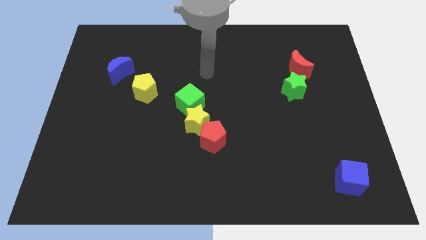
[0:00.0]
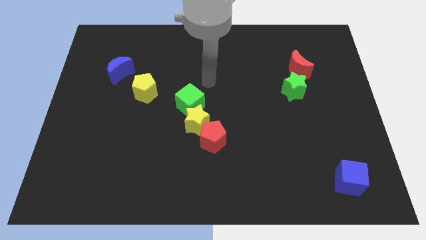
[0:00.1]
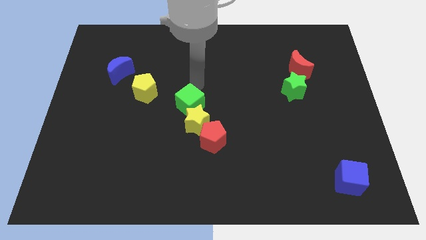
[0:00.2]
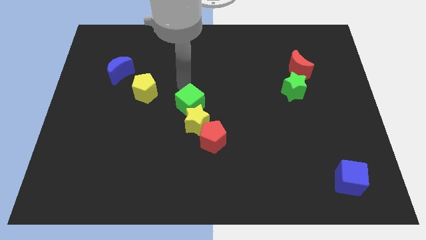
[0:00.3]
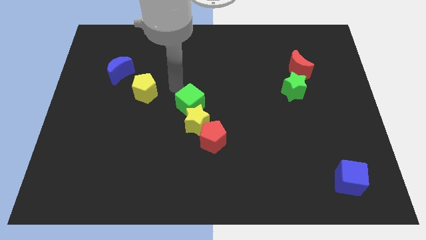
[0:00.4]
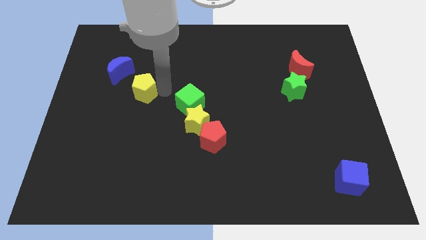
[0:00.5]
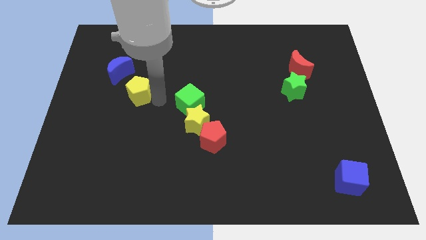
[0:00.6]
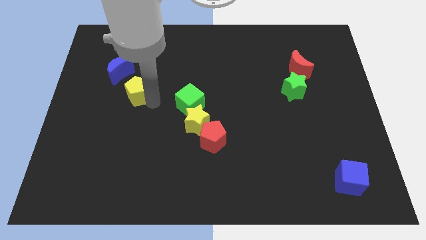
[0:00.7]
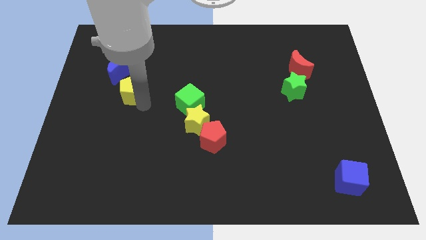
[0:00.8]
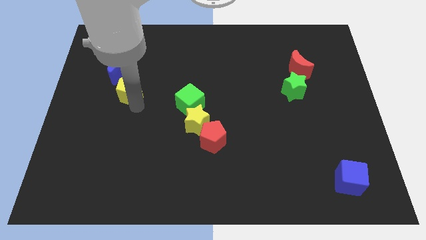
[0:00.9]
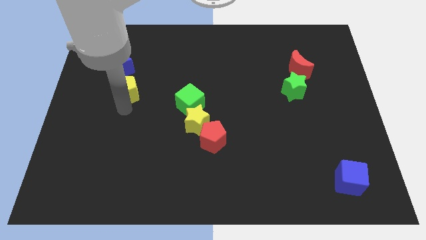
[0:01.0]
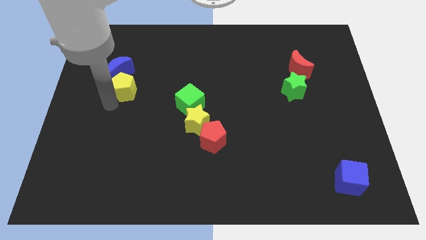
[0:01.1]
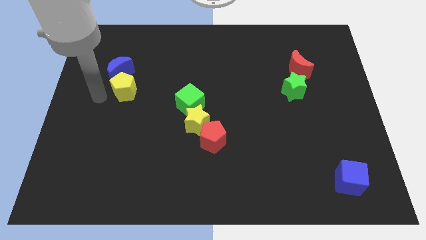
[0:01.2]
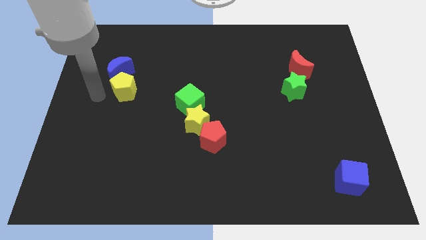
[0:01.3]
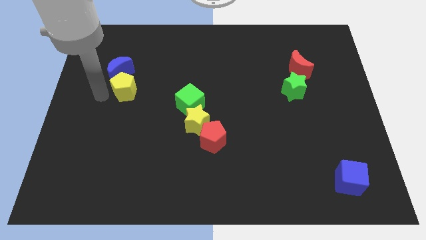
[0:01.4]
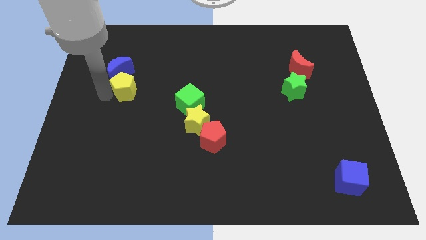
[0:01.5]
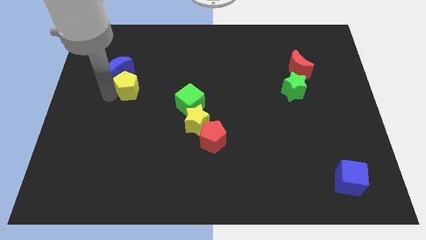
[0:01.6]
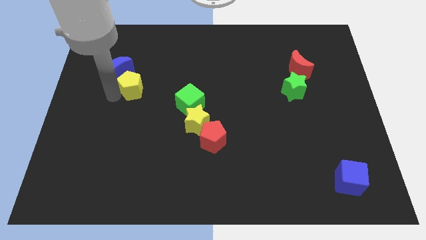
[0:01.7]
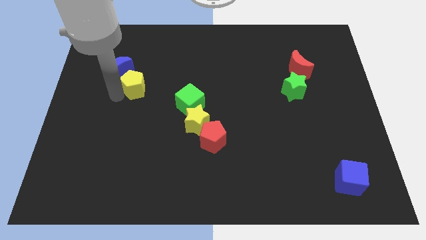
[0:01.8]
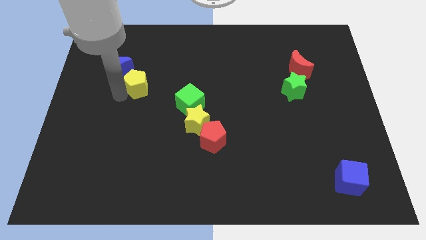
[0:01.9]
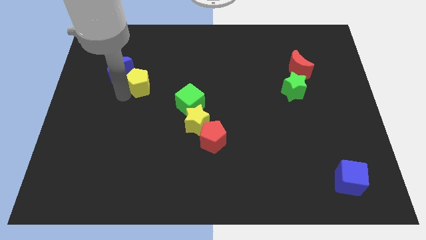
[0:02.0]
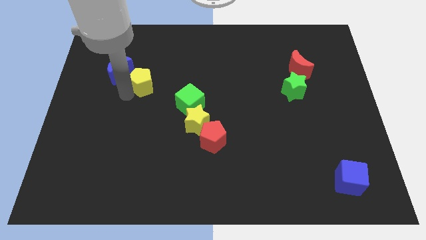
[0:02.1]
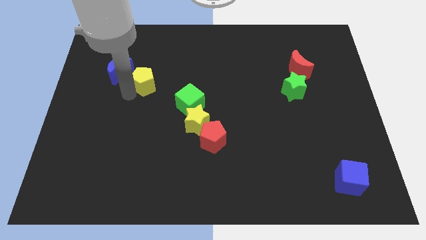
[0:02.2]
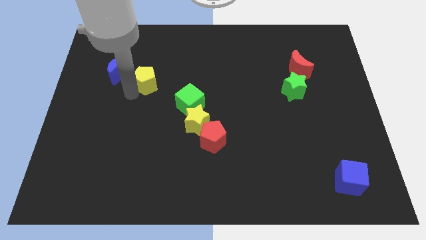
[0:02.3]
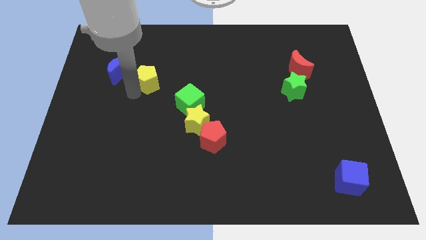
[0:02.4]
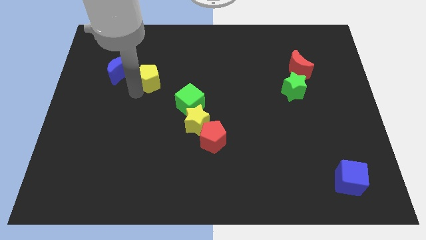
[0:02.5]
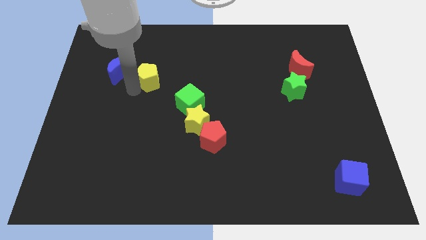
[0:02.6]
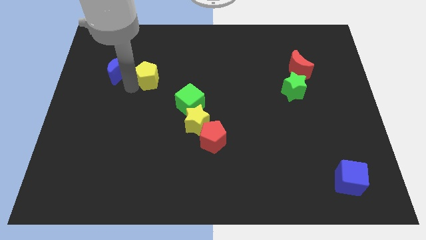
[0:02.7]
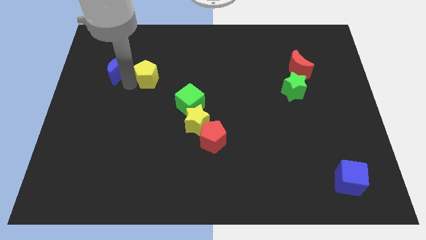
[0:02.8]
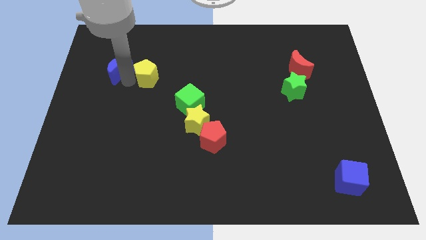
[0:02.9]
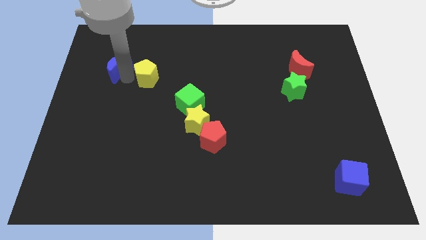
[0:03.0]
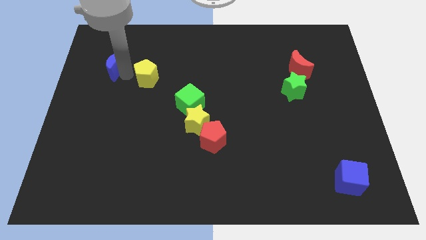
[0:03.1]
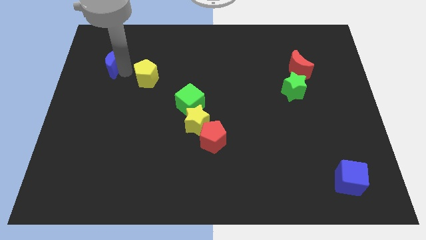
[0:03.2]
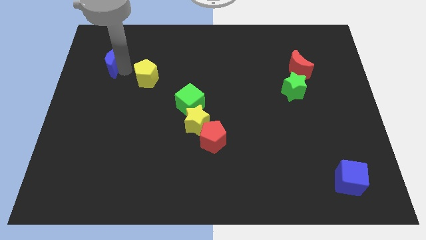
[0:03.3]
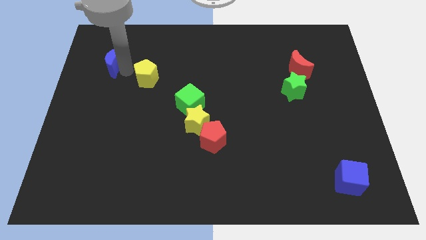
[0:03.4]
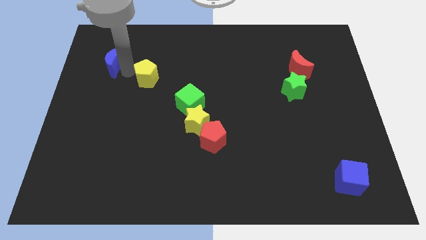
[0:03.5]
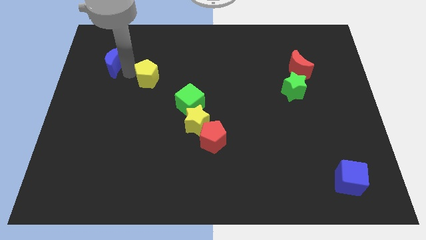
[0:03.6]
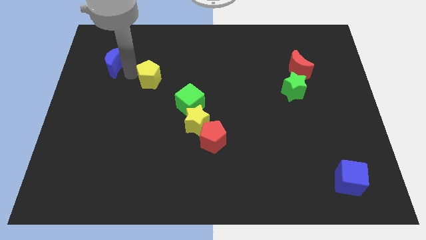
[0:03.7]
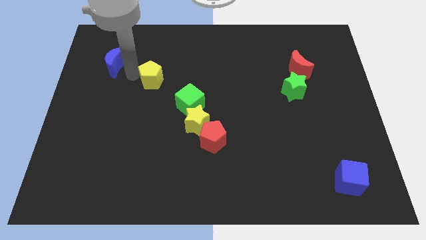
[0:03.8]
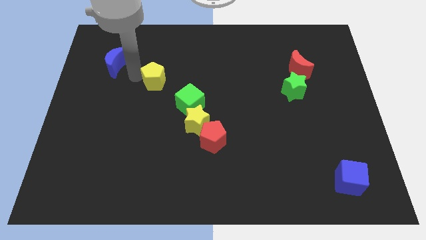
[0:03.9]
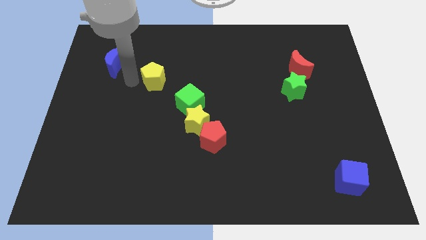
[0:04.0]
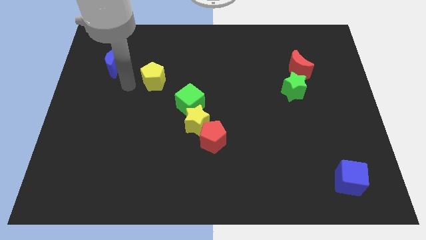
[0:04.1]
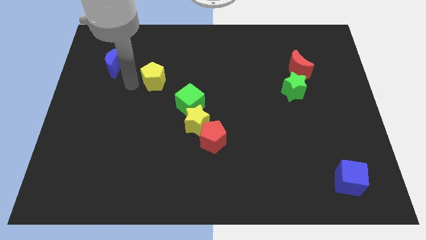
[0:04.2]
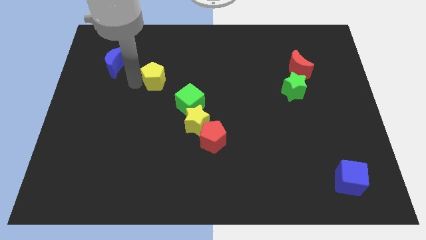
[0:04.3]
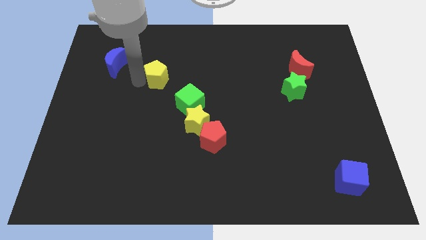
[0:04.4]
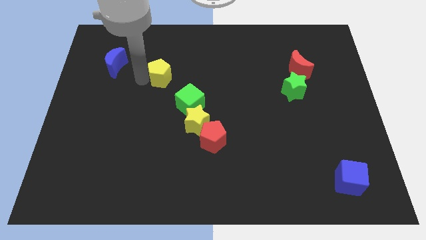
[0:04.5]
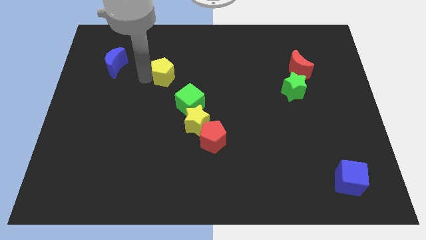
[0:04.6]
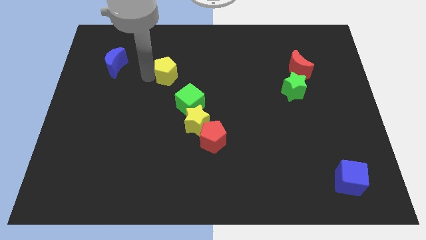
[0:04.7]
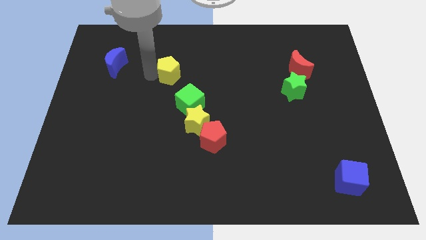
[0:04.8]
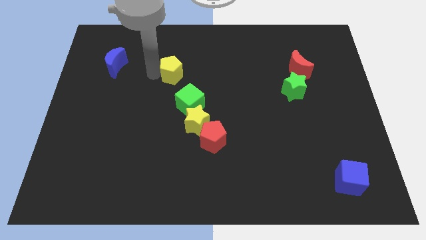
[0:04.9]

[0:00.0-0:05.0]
move the yellow pentagon to the top of the green cube

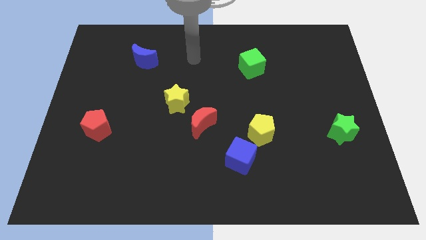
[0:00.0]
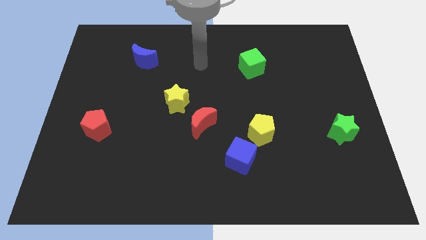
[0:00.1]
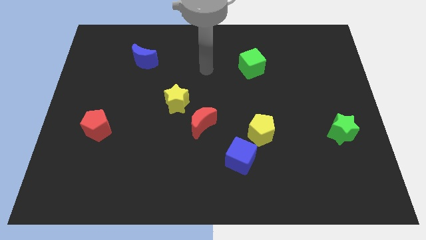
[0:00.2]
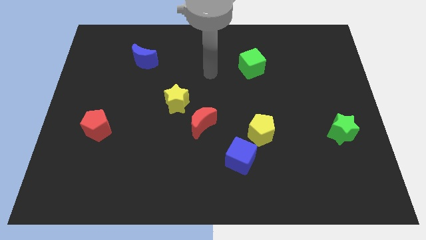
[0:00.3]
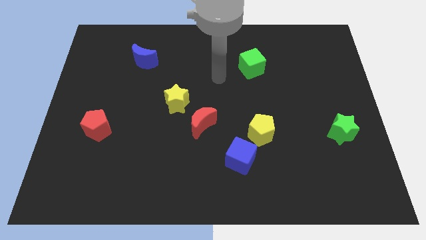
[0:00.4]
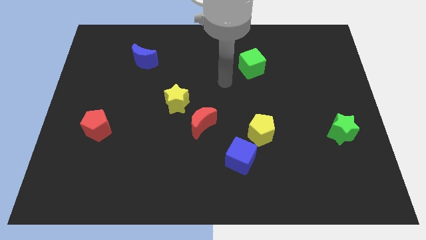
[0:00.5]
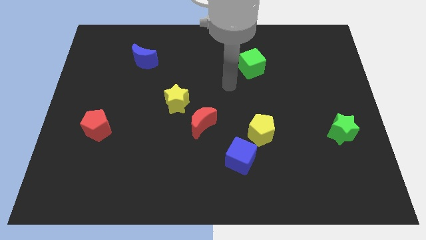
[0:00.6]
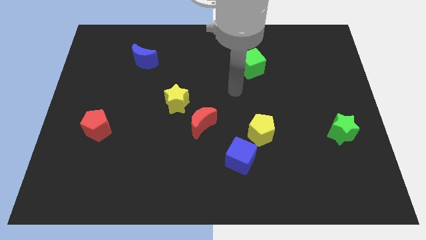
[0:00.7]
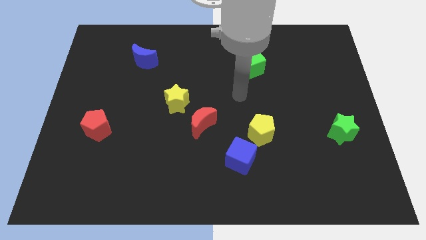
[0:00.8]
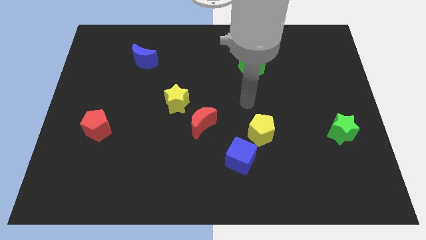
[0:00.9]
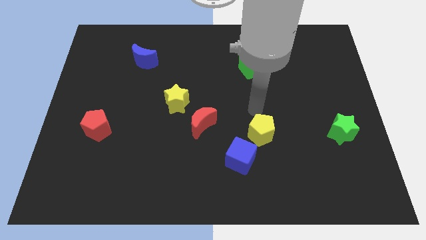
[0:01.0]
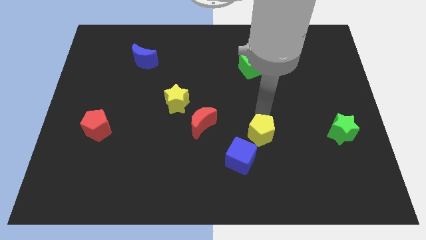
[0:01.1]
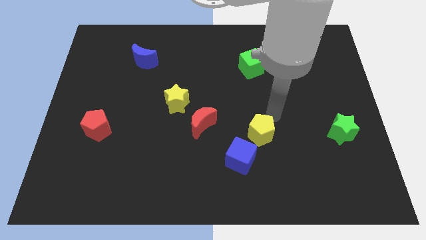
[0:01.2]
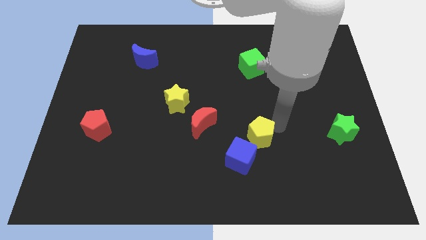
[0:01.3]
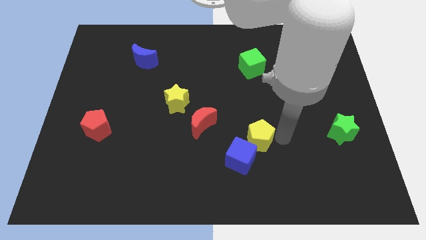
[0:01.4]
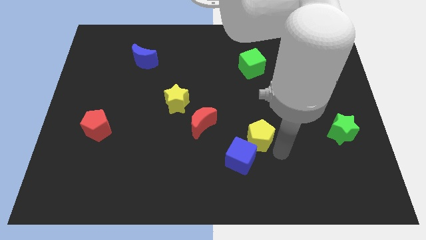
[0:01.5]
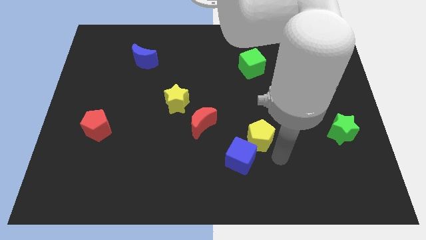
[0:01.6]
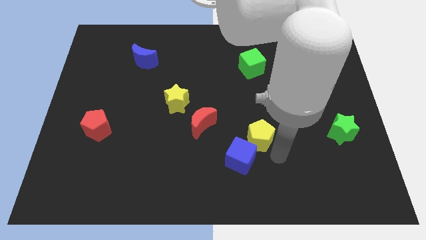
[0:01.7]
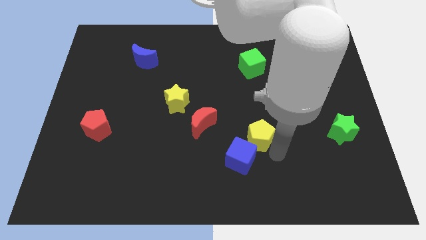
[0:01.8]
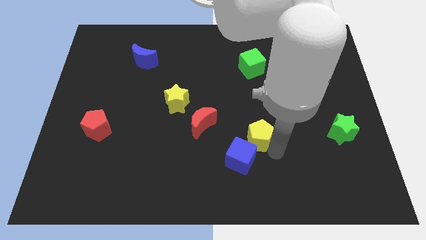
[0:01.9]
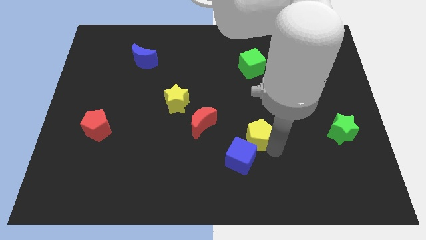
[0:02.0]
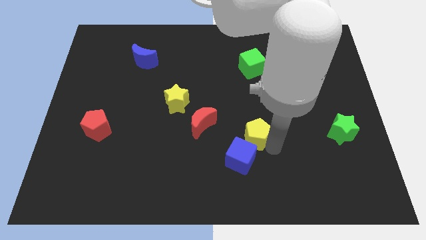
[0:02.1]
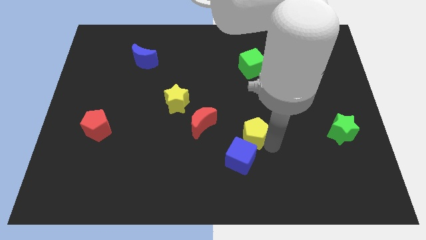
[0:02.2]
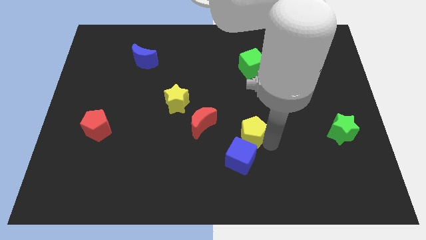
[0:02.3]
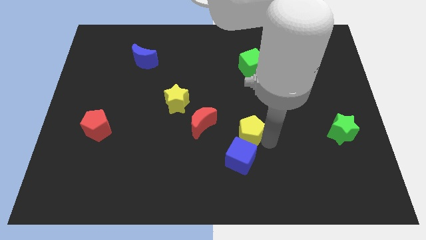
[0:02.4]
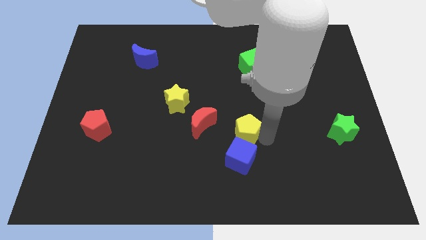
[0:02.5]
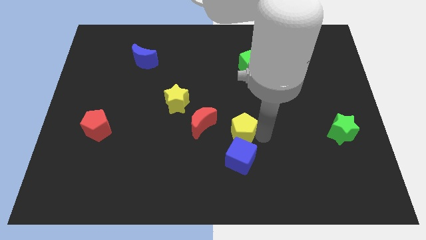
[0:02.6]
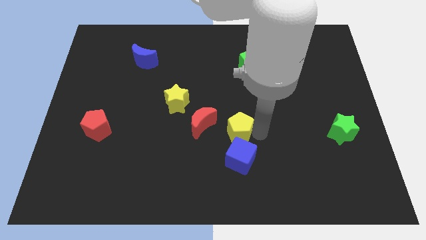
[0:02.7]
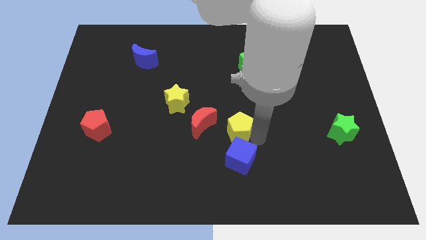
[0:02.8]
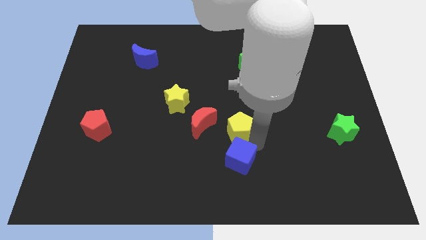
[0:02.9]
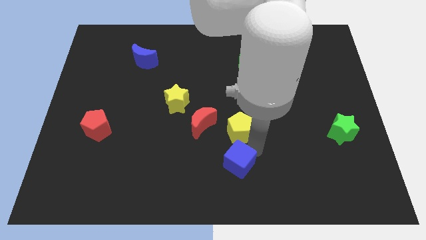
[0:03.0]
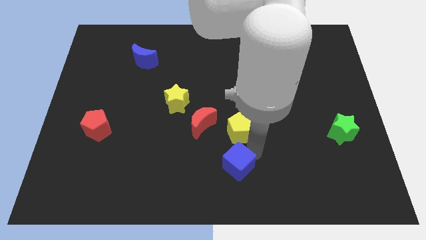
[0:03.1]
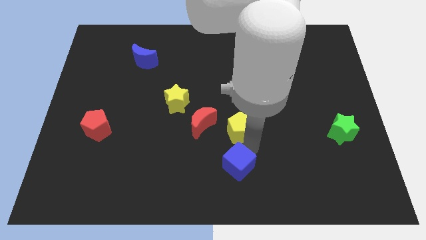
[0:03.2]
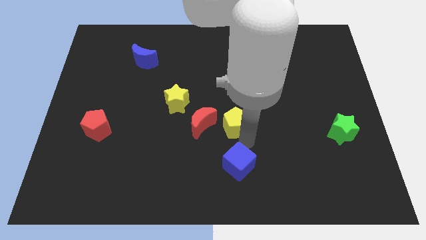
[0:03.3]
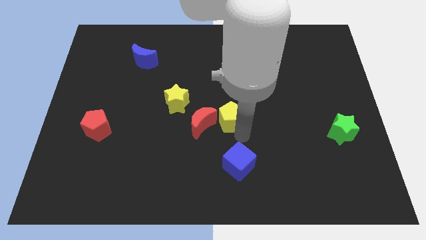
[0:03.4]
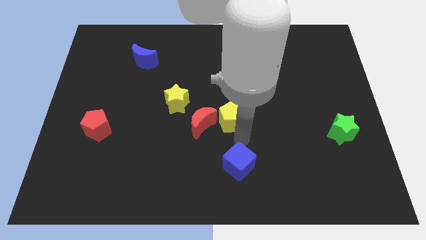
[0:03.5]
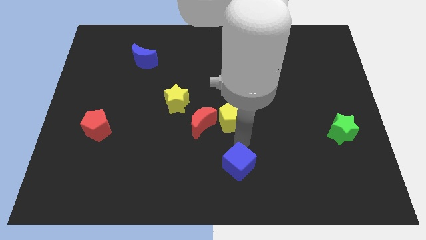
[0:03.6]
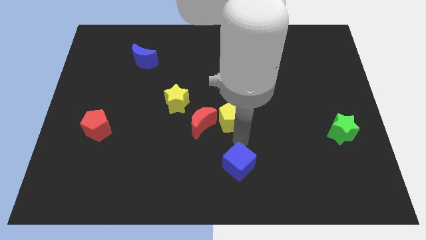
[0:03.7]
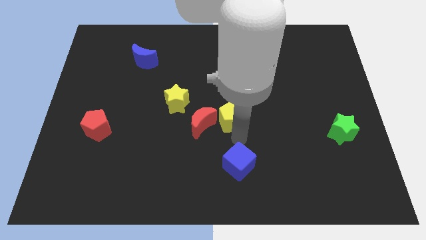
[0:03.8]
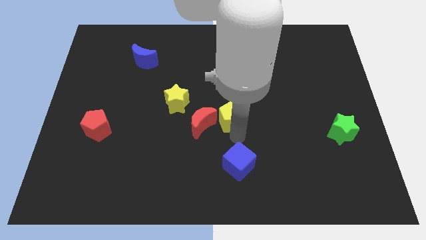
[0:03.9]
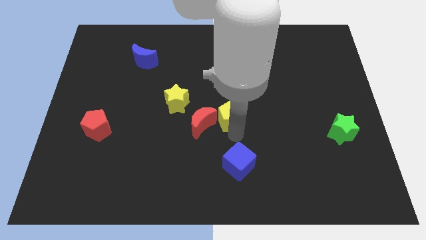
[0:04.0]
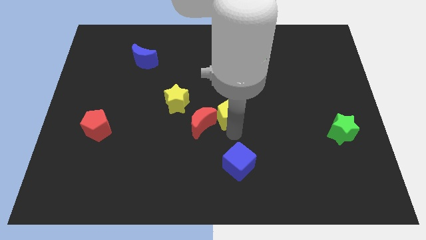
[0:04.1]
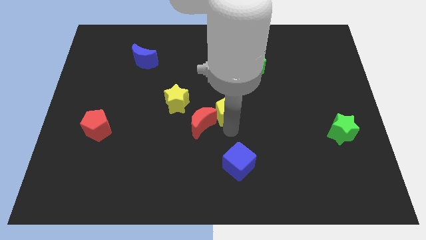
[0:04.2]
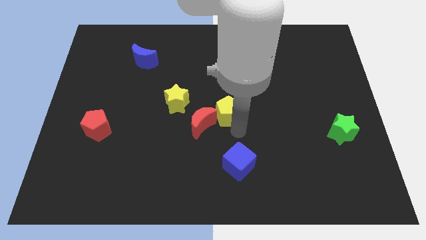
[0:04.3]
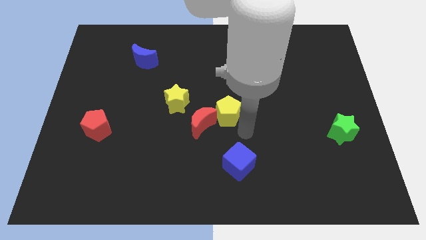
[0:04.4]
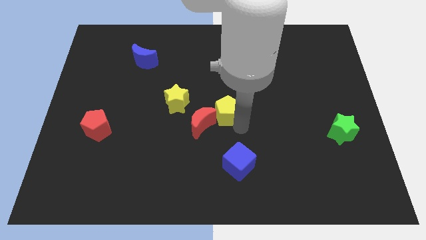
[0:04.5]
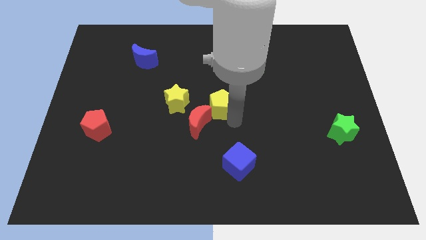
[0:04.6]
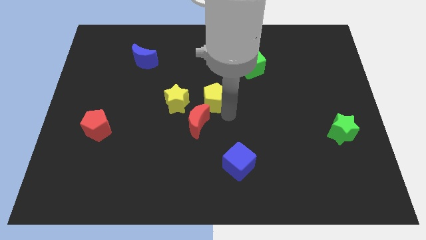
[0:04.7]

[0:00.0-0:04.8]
put the yellow pentagon to the top of the red moon
